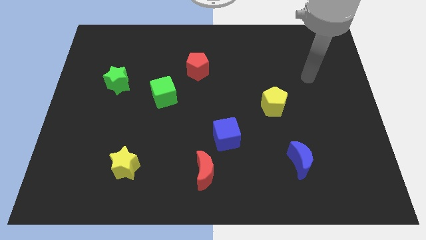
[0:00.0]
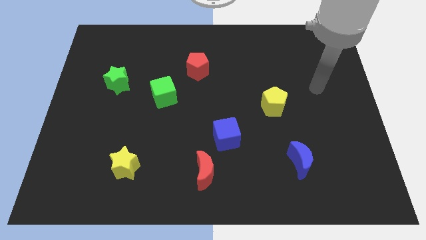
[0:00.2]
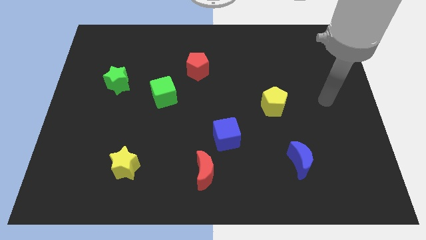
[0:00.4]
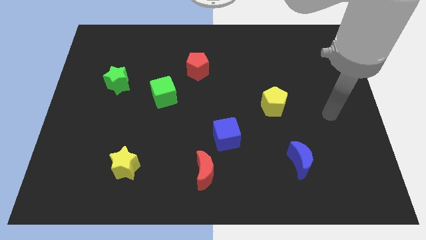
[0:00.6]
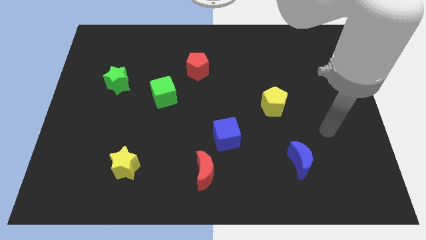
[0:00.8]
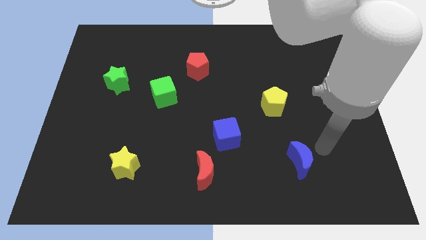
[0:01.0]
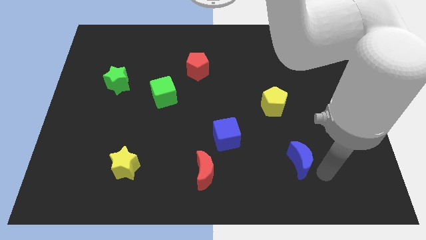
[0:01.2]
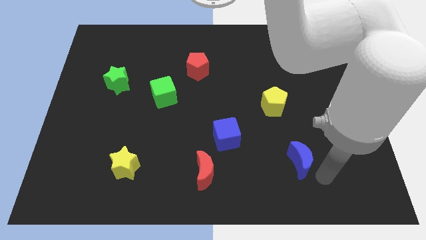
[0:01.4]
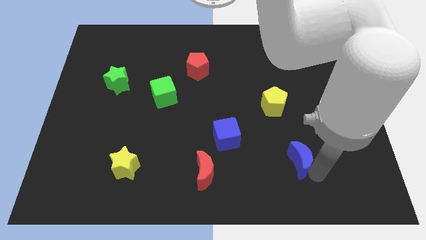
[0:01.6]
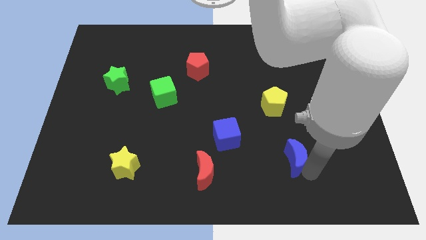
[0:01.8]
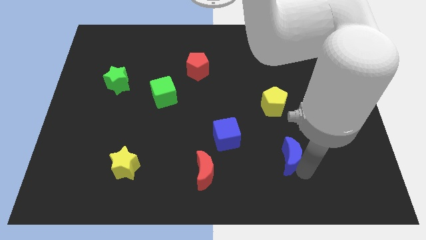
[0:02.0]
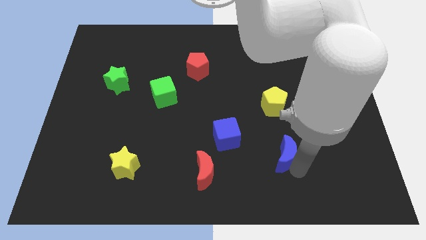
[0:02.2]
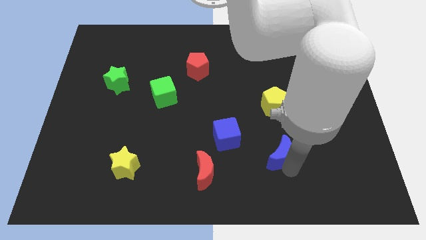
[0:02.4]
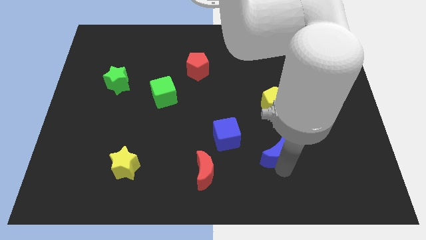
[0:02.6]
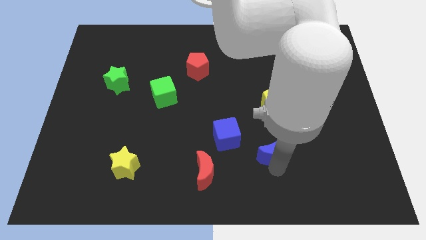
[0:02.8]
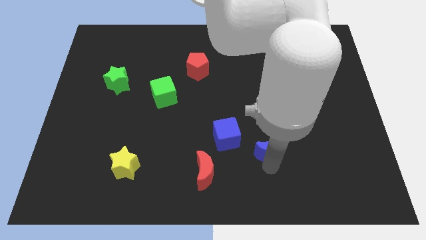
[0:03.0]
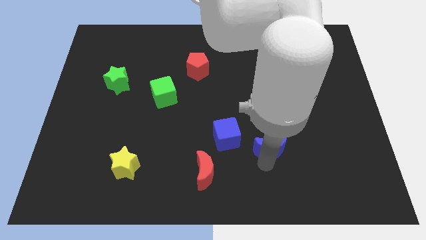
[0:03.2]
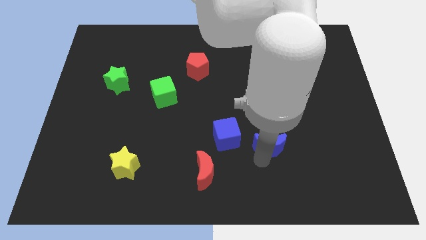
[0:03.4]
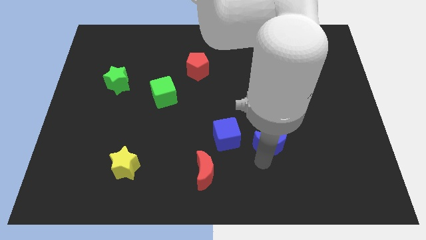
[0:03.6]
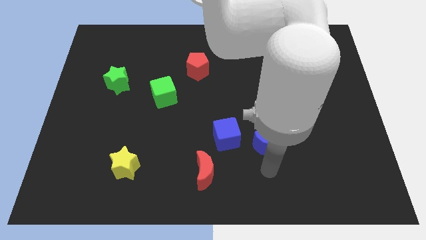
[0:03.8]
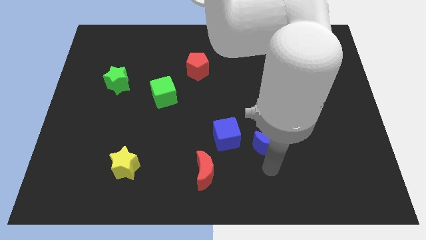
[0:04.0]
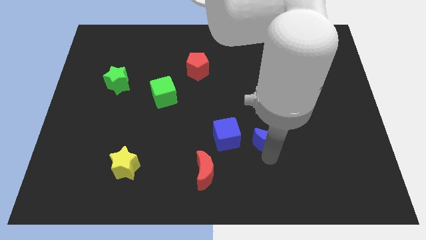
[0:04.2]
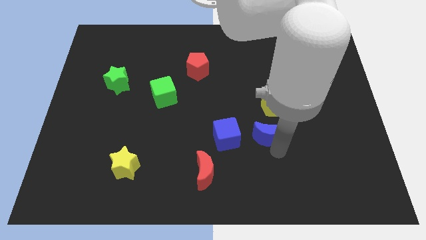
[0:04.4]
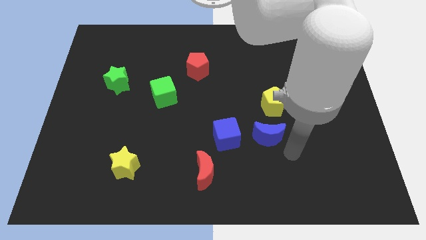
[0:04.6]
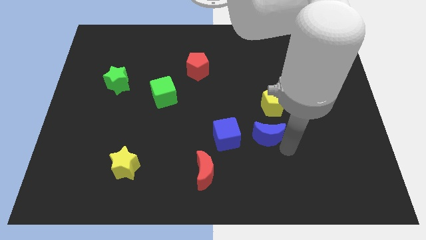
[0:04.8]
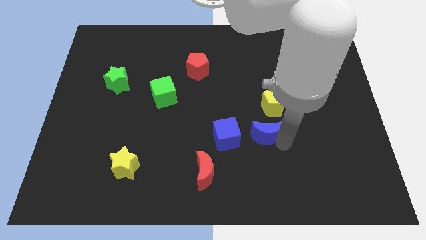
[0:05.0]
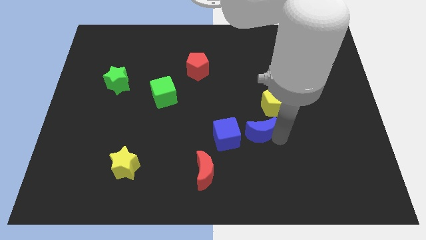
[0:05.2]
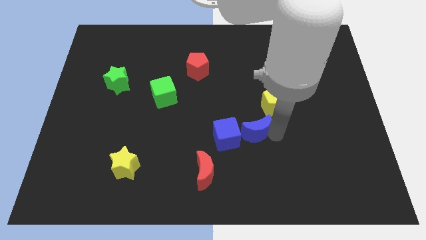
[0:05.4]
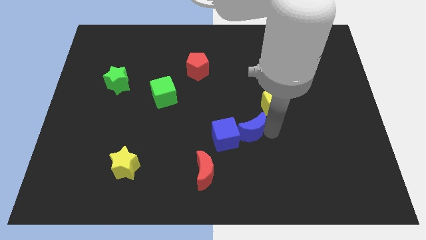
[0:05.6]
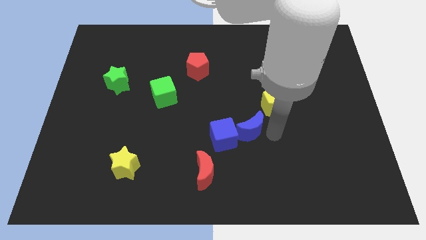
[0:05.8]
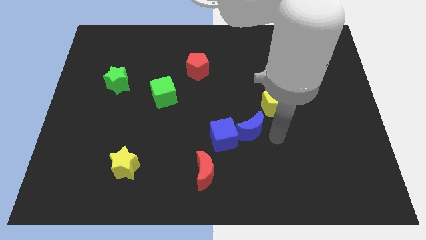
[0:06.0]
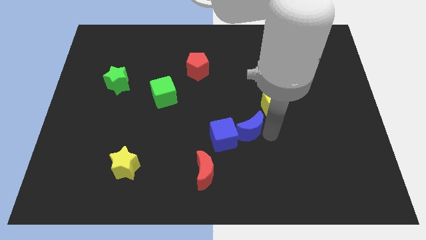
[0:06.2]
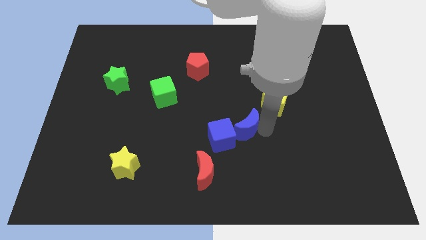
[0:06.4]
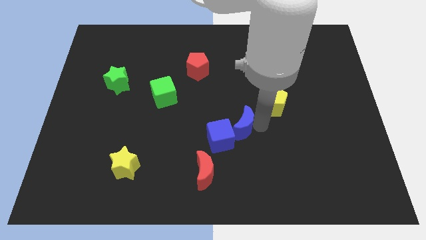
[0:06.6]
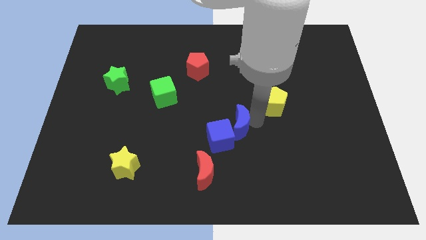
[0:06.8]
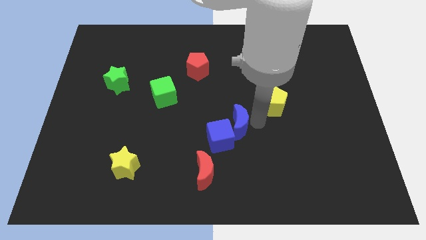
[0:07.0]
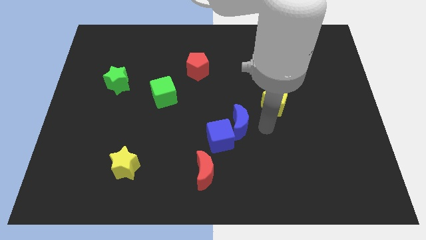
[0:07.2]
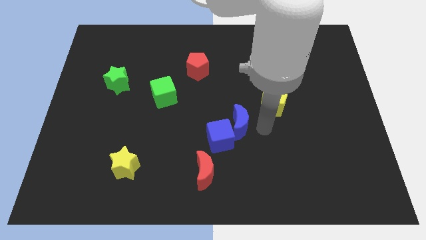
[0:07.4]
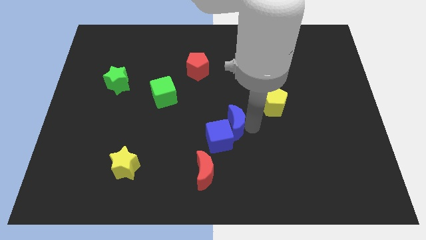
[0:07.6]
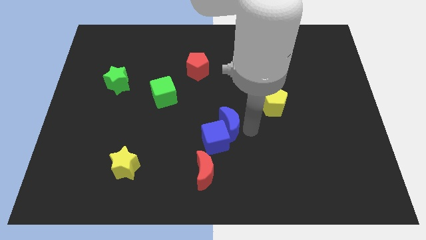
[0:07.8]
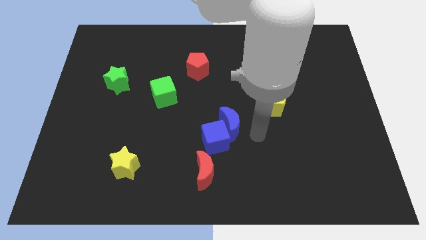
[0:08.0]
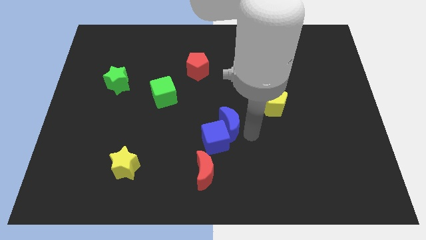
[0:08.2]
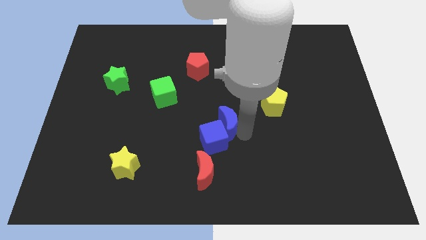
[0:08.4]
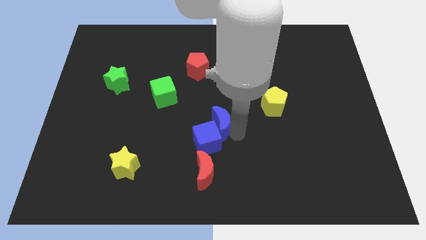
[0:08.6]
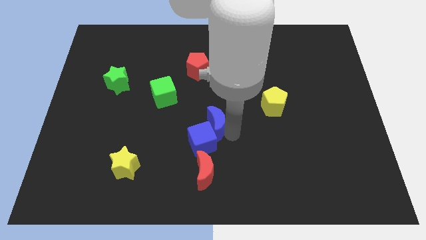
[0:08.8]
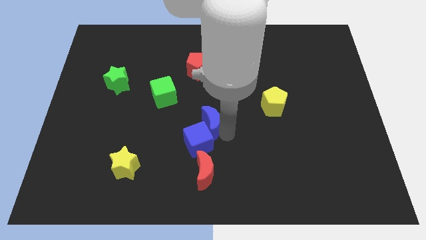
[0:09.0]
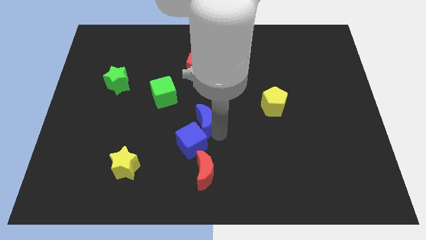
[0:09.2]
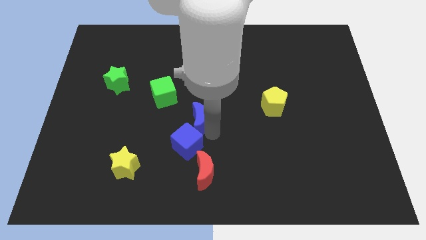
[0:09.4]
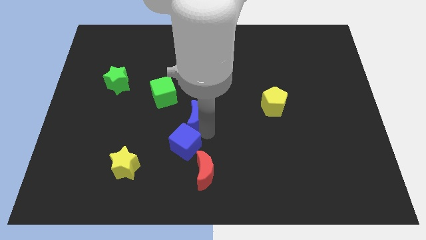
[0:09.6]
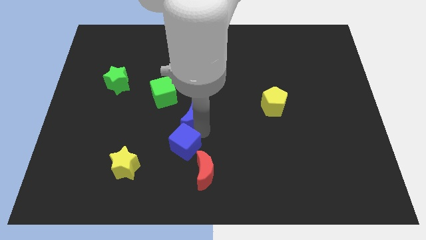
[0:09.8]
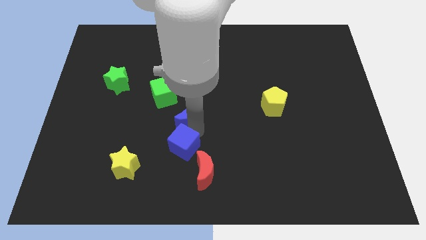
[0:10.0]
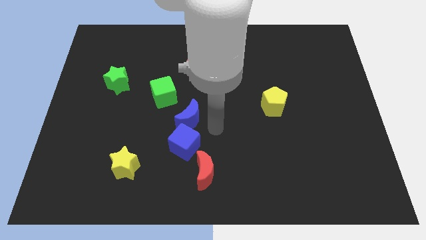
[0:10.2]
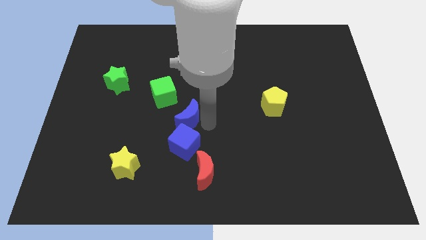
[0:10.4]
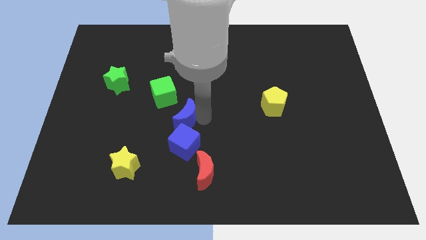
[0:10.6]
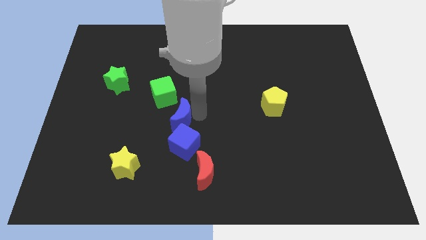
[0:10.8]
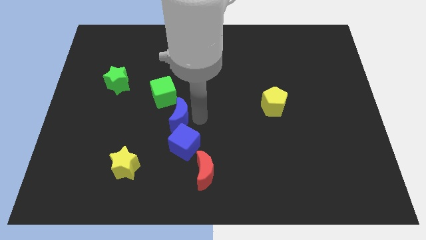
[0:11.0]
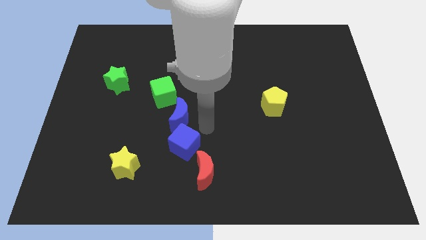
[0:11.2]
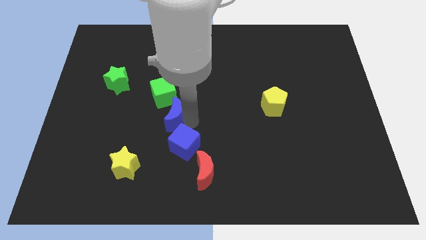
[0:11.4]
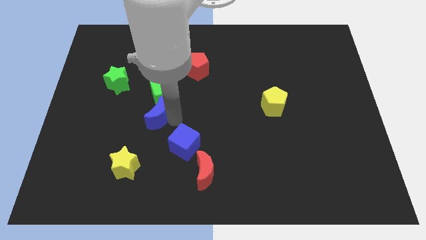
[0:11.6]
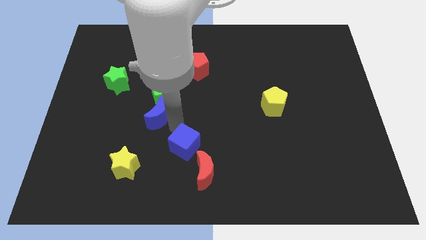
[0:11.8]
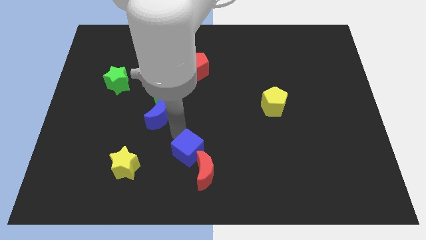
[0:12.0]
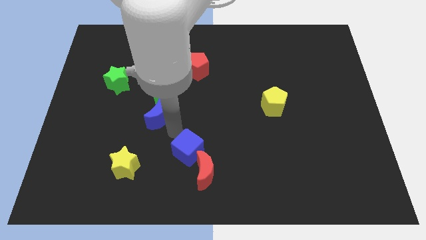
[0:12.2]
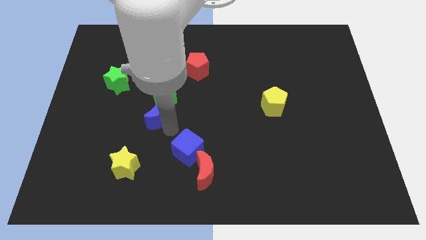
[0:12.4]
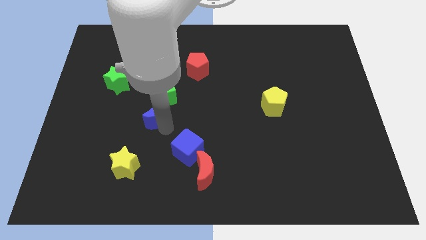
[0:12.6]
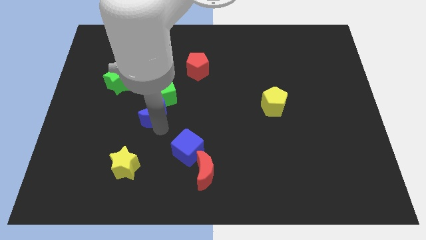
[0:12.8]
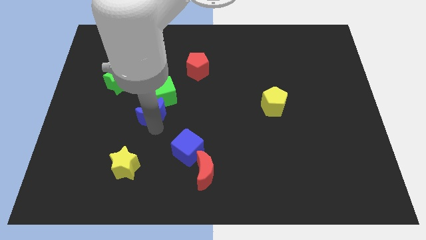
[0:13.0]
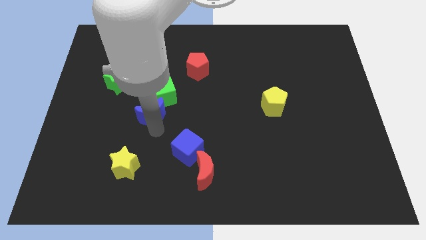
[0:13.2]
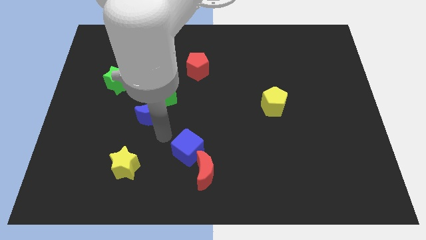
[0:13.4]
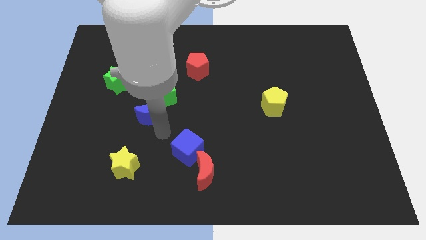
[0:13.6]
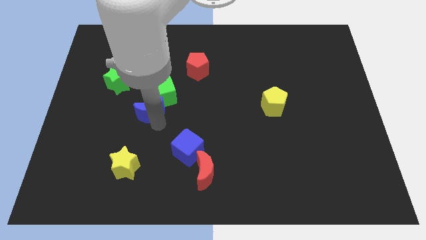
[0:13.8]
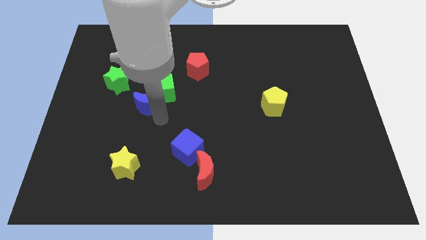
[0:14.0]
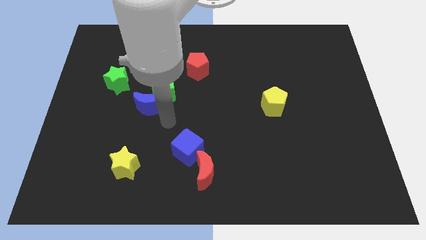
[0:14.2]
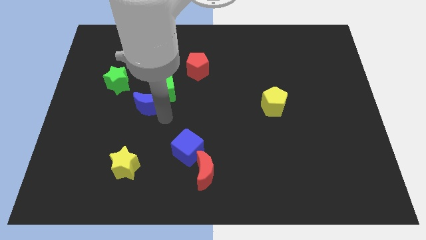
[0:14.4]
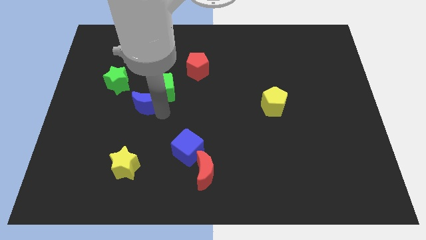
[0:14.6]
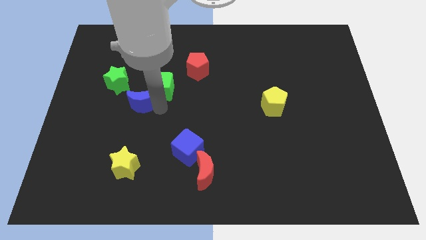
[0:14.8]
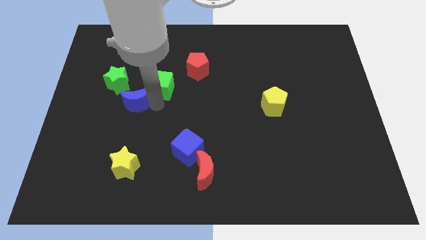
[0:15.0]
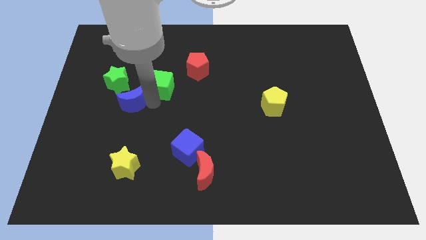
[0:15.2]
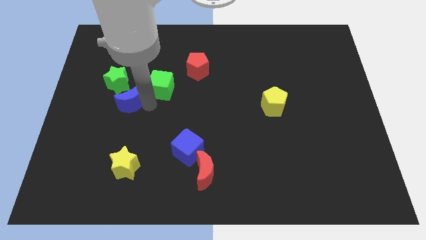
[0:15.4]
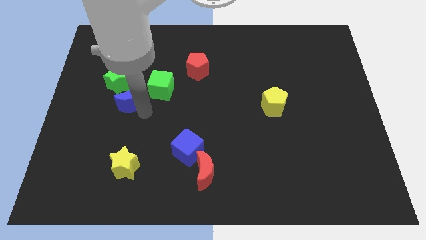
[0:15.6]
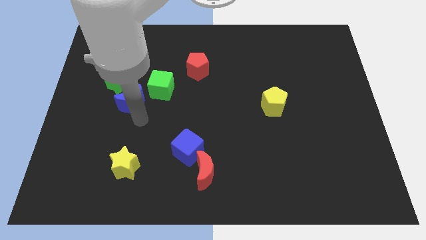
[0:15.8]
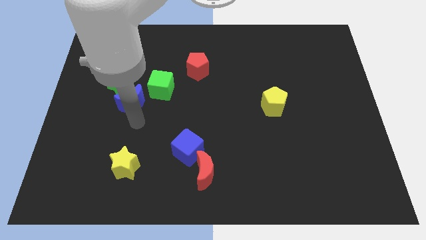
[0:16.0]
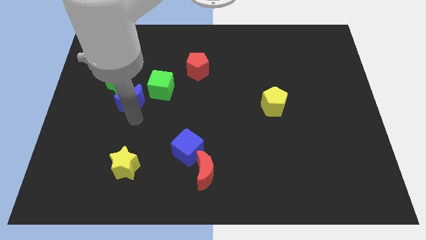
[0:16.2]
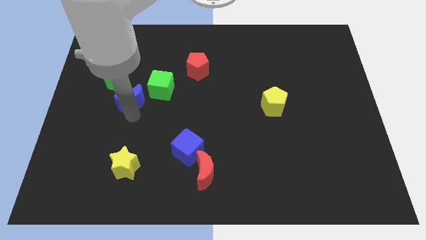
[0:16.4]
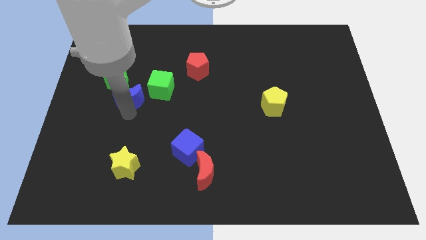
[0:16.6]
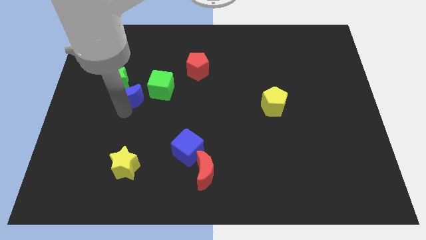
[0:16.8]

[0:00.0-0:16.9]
put the blue moon next to the green star
